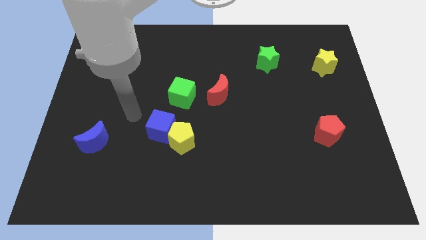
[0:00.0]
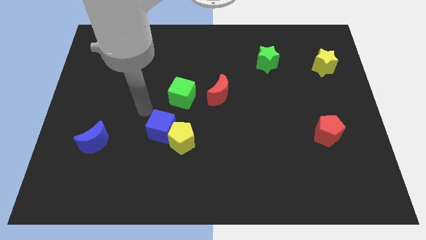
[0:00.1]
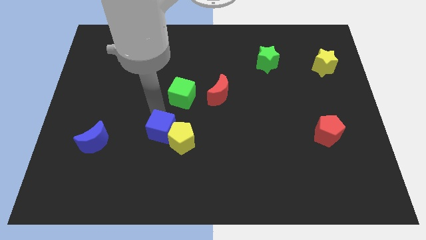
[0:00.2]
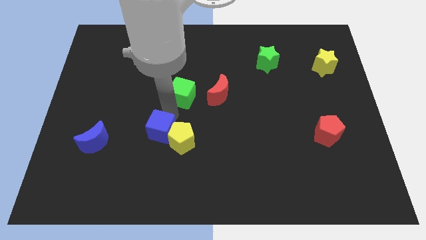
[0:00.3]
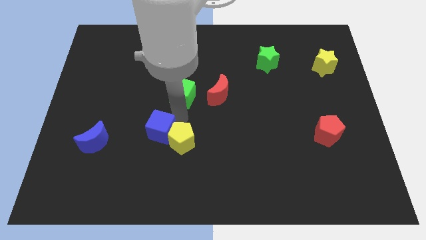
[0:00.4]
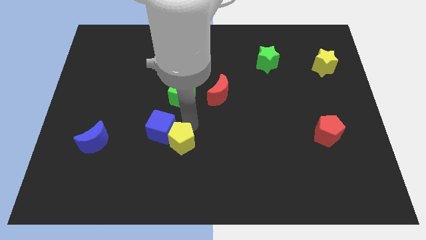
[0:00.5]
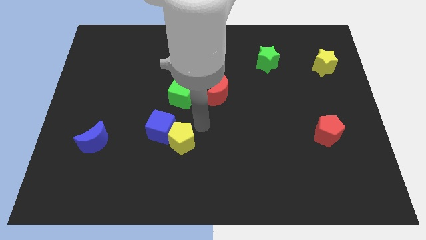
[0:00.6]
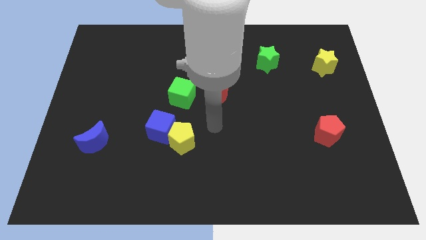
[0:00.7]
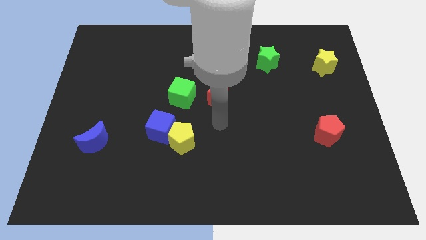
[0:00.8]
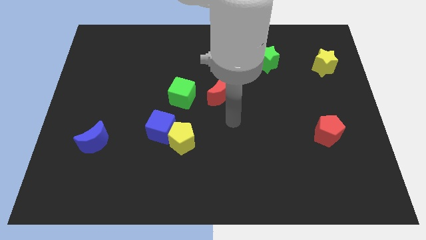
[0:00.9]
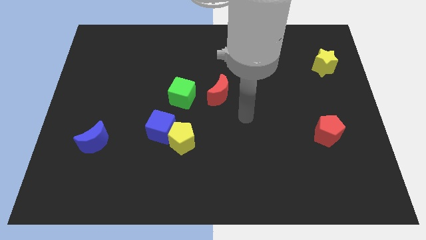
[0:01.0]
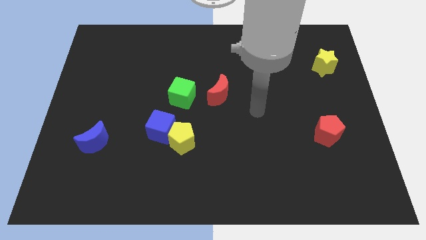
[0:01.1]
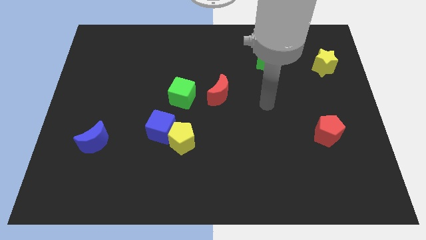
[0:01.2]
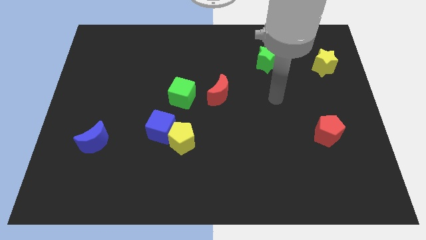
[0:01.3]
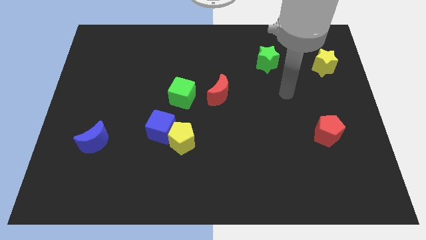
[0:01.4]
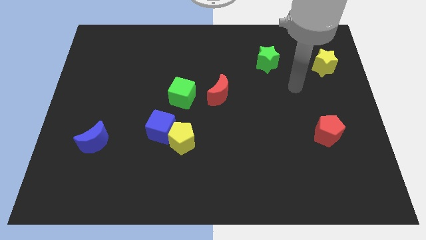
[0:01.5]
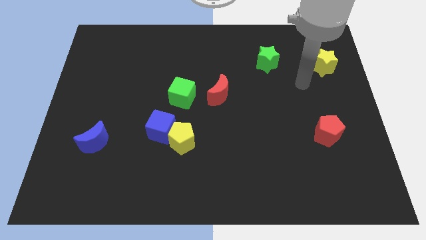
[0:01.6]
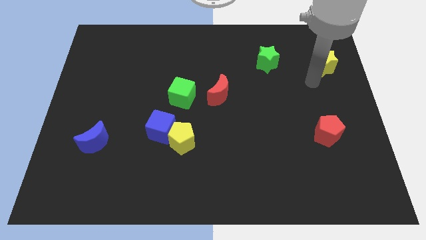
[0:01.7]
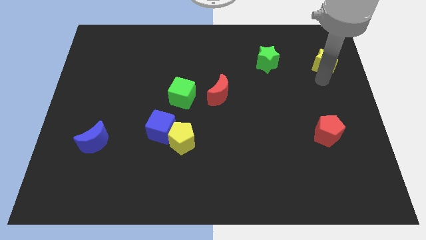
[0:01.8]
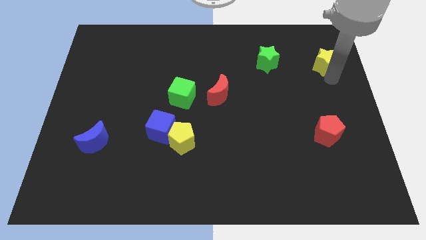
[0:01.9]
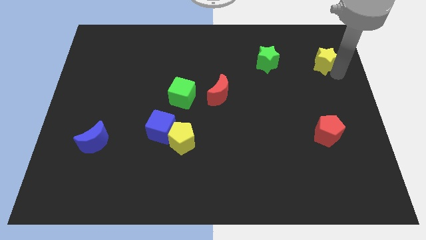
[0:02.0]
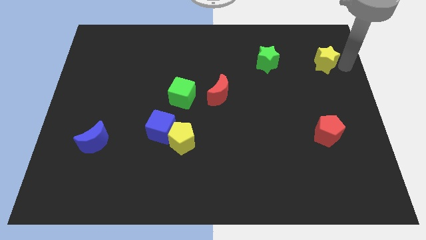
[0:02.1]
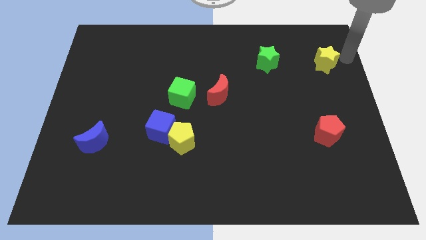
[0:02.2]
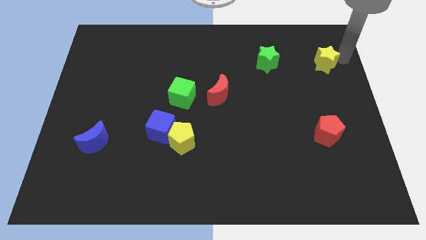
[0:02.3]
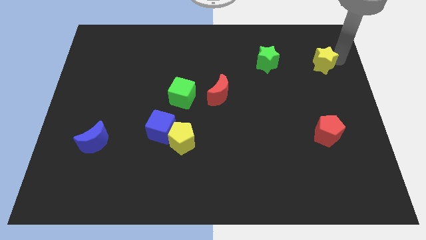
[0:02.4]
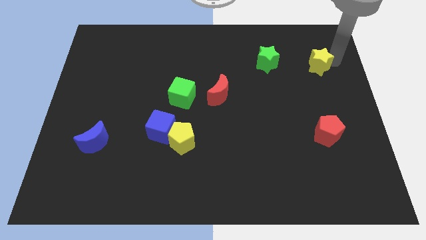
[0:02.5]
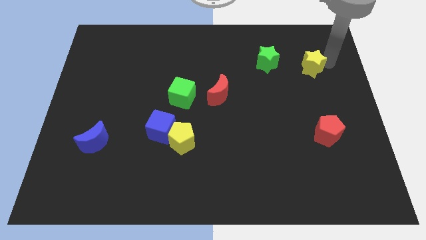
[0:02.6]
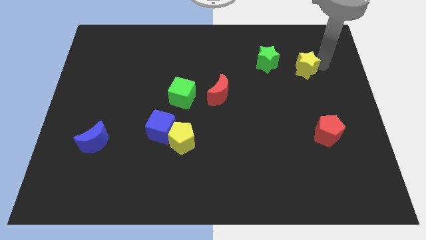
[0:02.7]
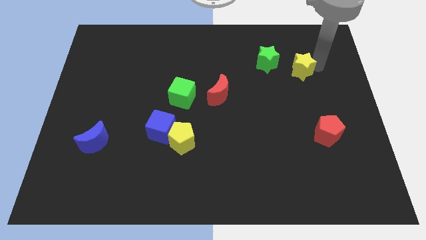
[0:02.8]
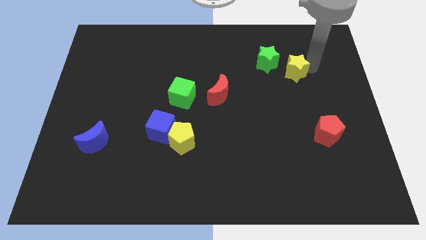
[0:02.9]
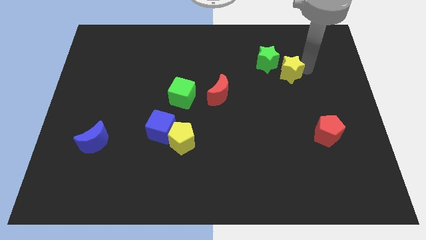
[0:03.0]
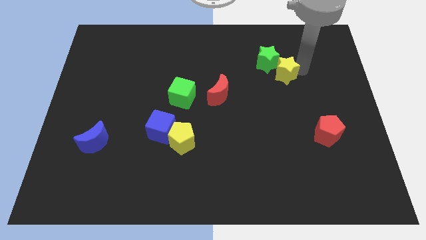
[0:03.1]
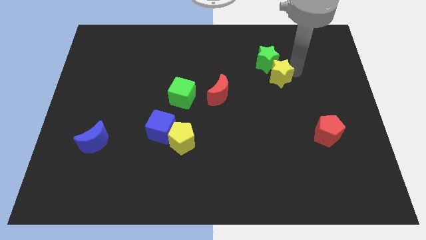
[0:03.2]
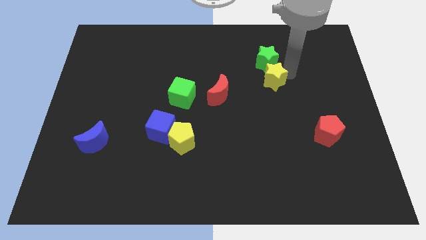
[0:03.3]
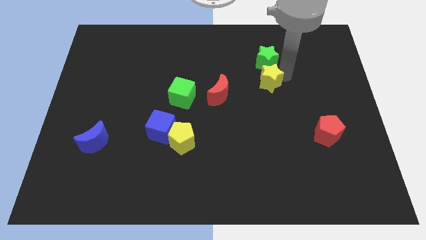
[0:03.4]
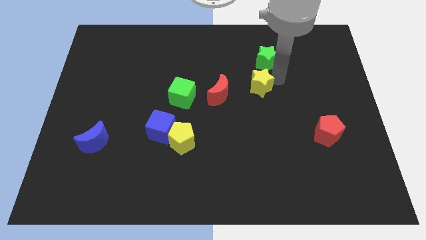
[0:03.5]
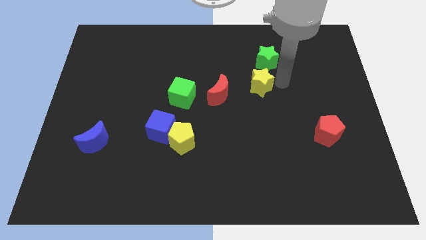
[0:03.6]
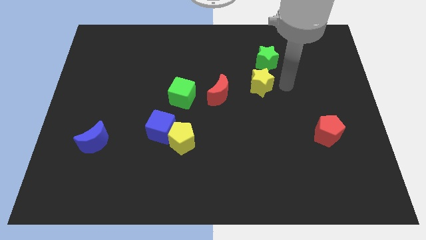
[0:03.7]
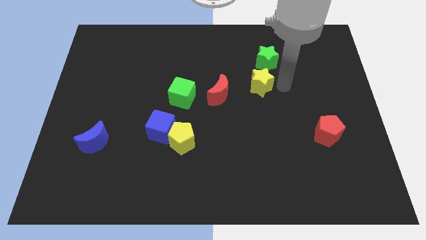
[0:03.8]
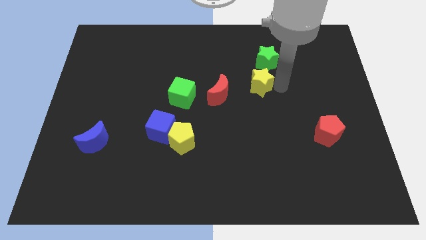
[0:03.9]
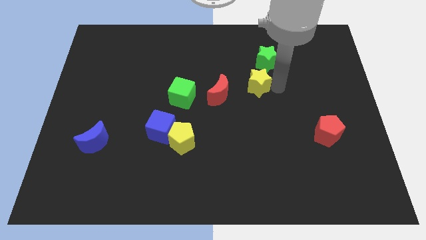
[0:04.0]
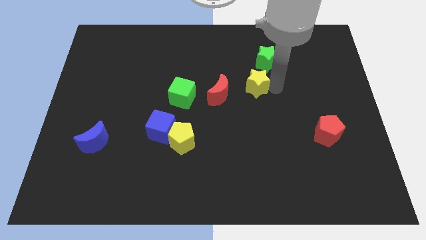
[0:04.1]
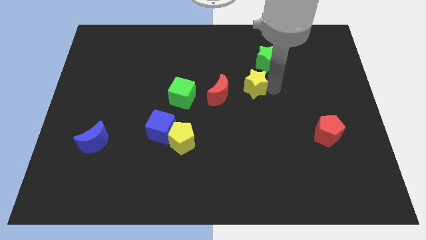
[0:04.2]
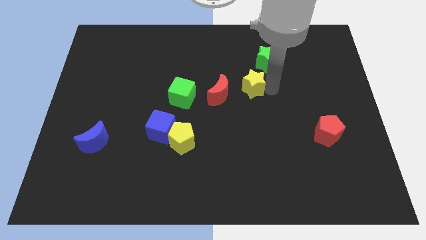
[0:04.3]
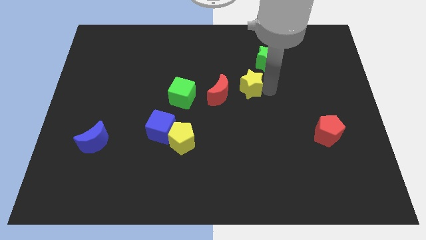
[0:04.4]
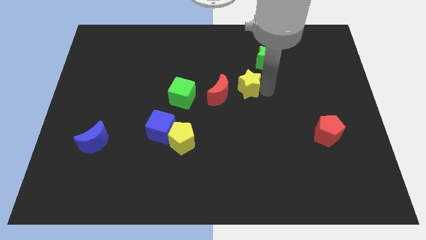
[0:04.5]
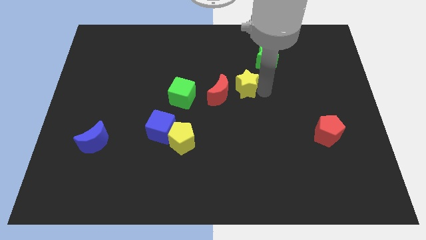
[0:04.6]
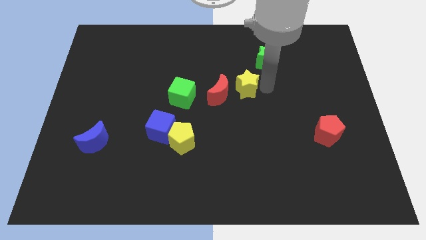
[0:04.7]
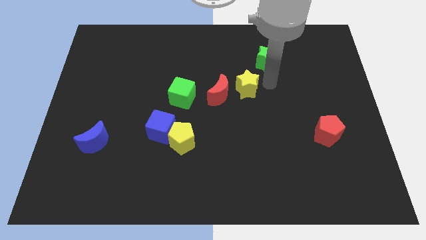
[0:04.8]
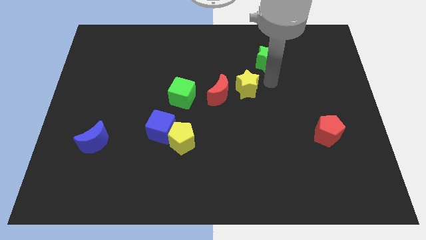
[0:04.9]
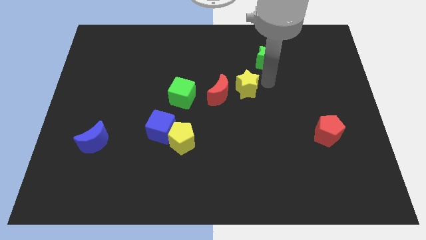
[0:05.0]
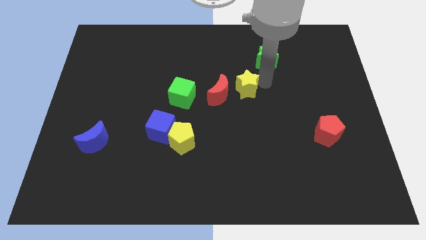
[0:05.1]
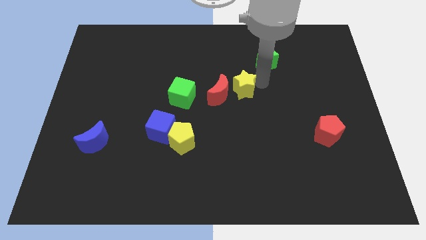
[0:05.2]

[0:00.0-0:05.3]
move the yellow star towards the red moon

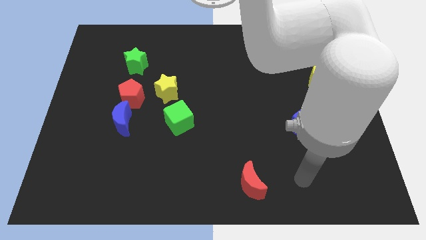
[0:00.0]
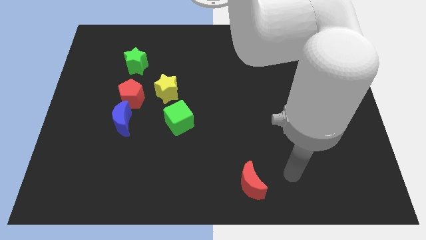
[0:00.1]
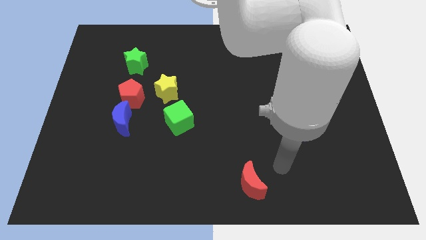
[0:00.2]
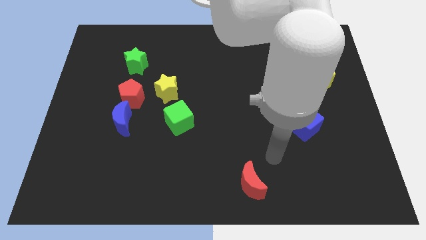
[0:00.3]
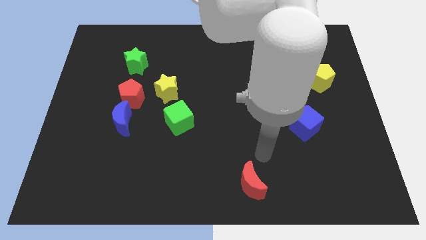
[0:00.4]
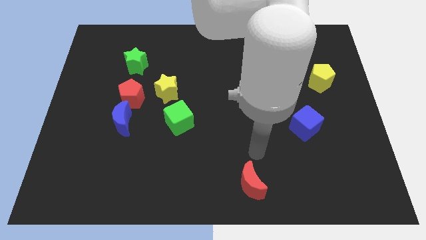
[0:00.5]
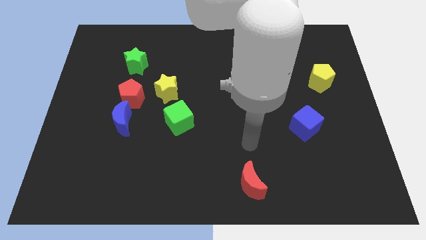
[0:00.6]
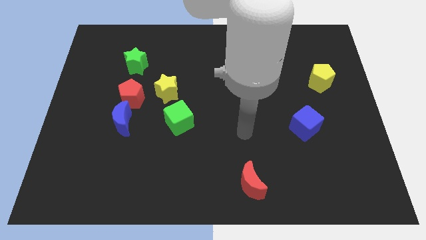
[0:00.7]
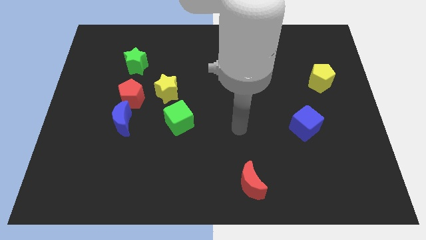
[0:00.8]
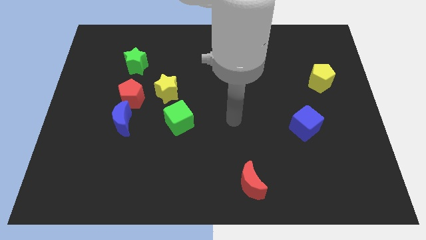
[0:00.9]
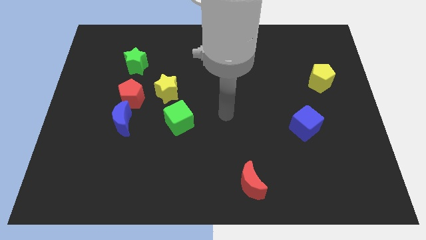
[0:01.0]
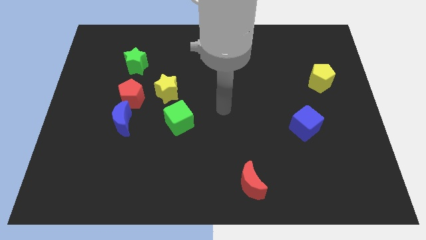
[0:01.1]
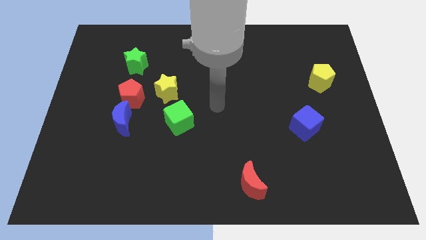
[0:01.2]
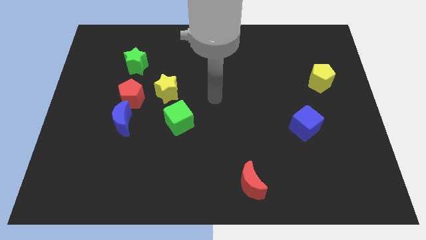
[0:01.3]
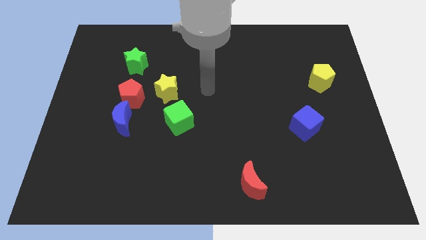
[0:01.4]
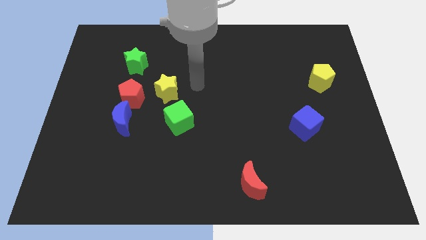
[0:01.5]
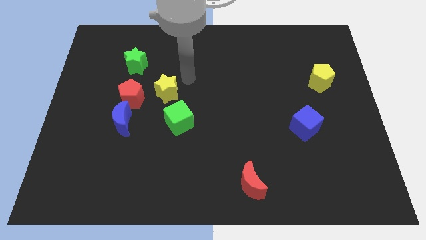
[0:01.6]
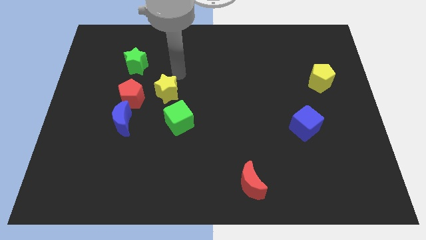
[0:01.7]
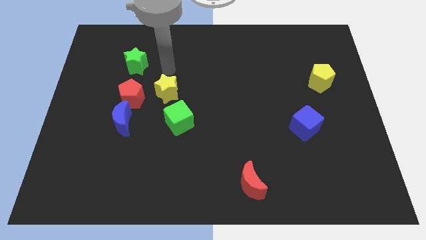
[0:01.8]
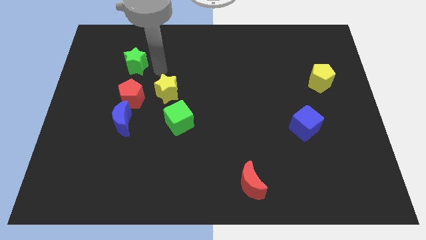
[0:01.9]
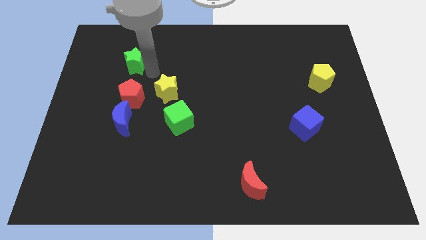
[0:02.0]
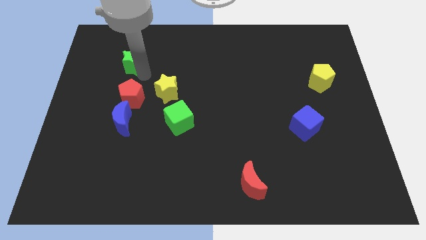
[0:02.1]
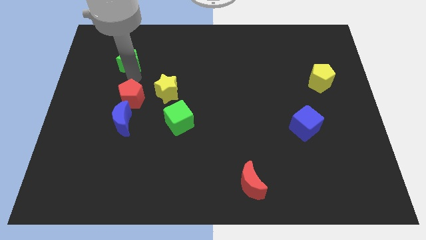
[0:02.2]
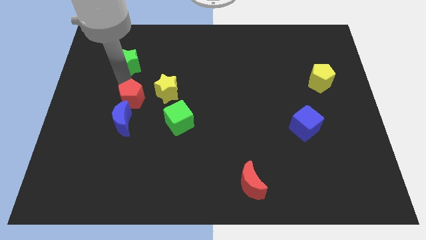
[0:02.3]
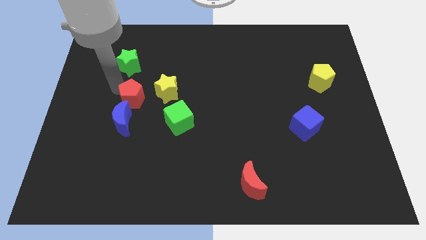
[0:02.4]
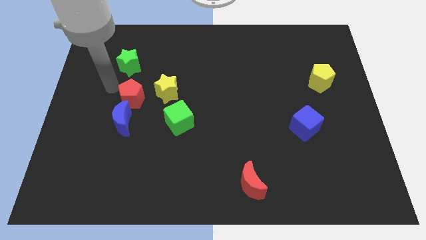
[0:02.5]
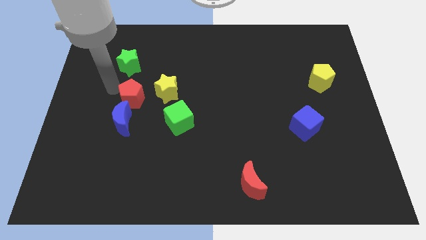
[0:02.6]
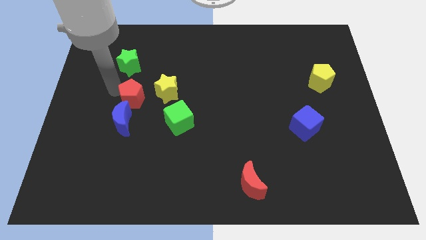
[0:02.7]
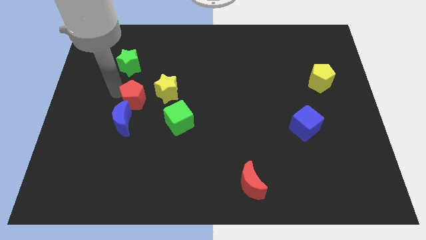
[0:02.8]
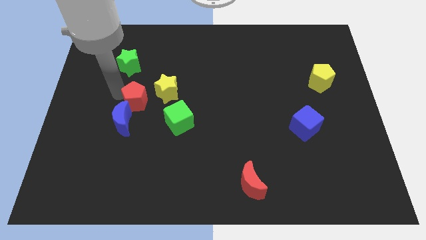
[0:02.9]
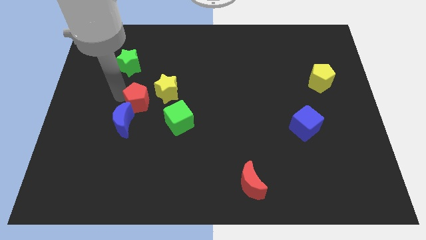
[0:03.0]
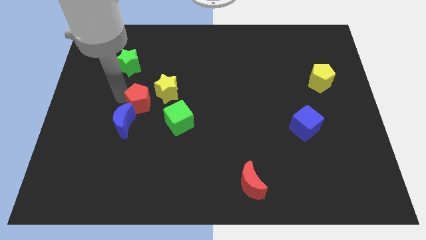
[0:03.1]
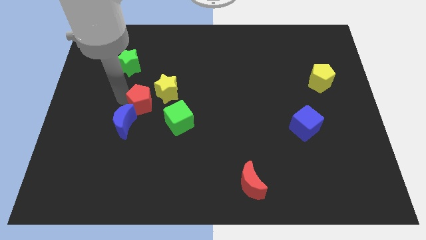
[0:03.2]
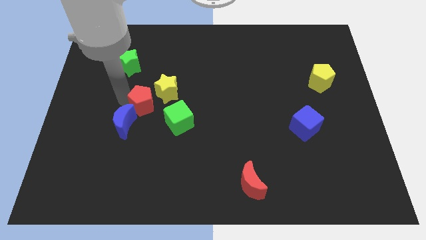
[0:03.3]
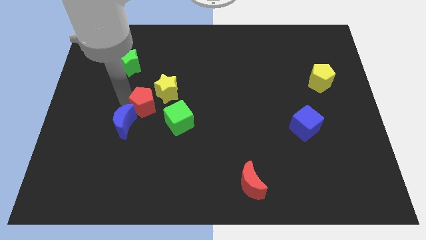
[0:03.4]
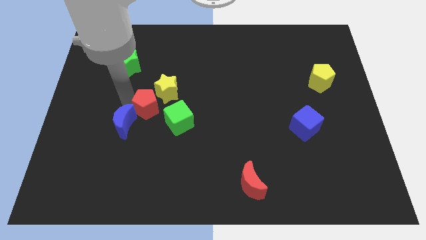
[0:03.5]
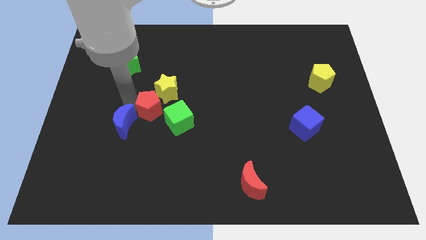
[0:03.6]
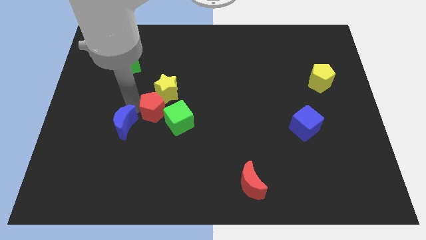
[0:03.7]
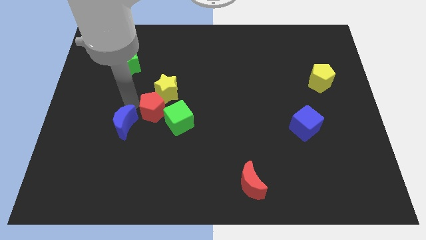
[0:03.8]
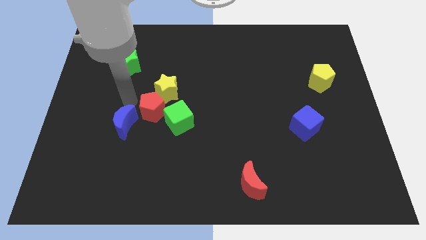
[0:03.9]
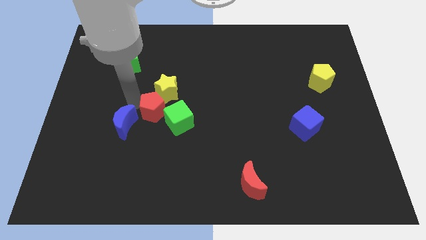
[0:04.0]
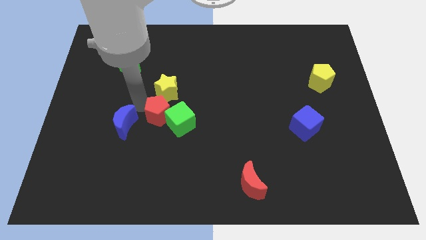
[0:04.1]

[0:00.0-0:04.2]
push the red pentagon close to the green cube
